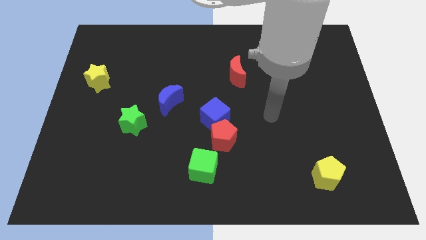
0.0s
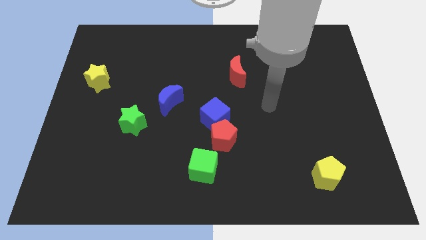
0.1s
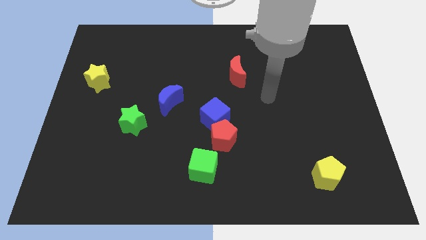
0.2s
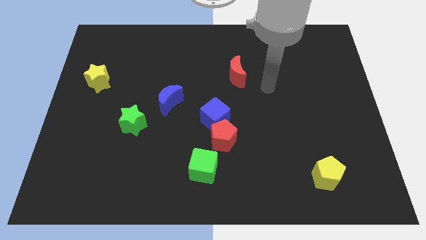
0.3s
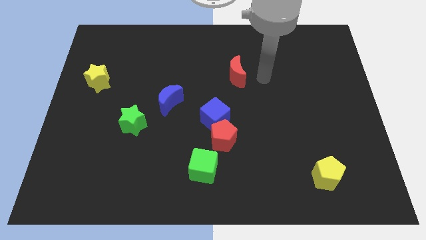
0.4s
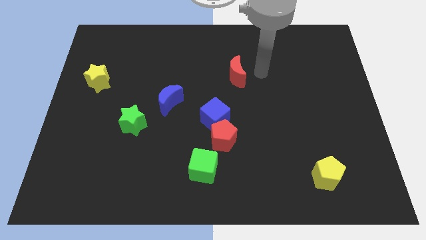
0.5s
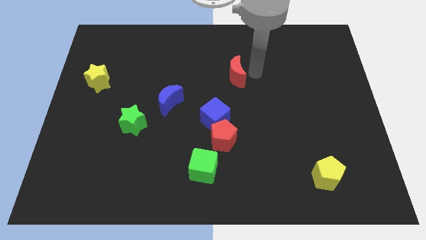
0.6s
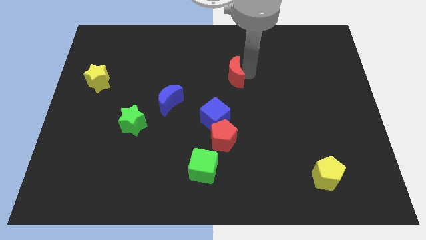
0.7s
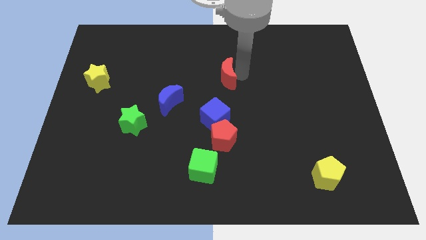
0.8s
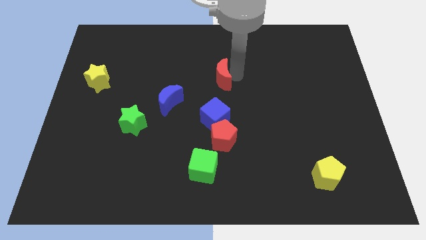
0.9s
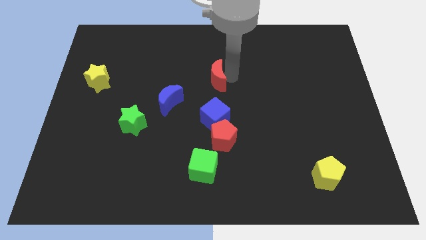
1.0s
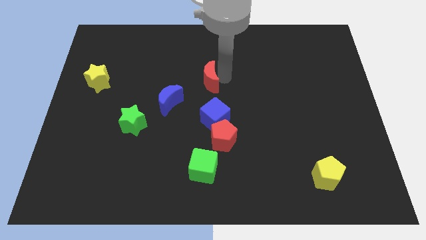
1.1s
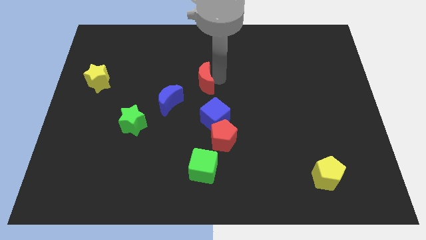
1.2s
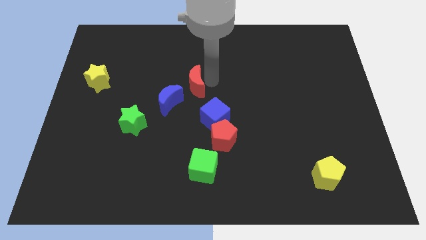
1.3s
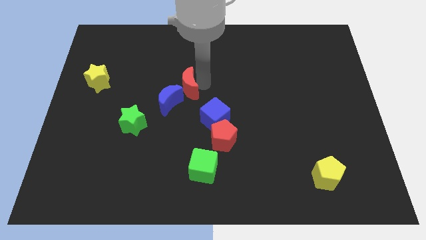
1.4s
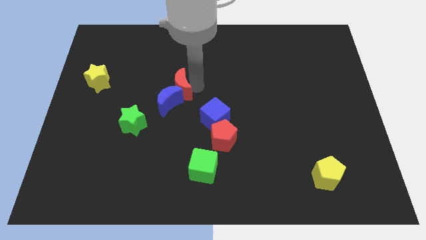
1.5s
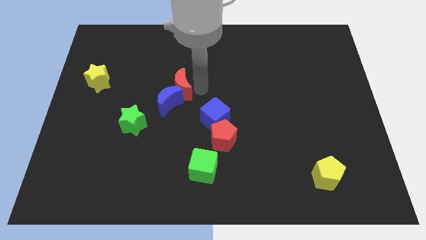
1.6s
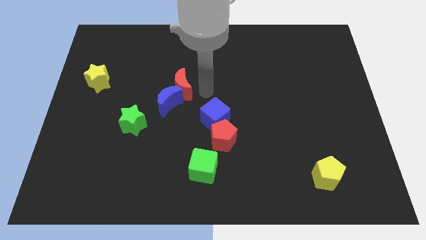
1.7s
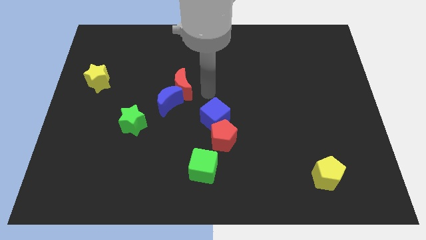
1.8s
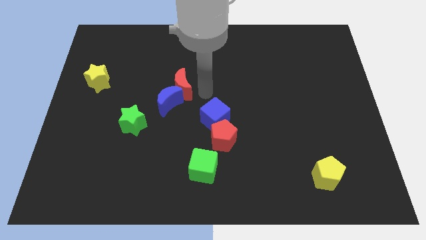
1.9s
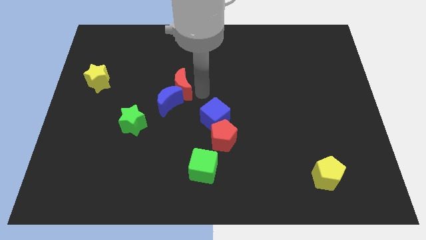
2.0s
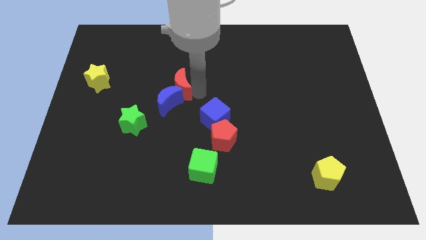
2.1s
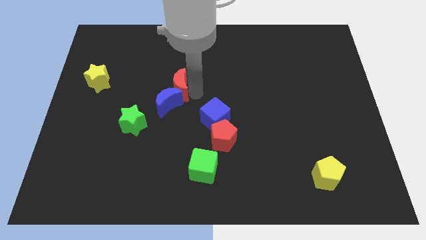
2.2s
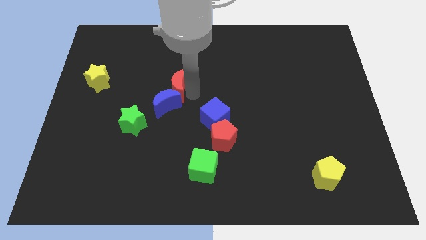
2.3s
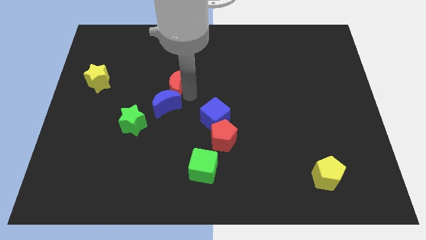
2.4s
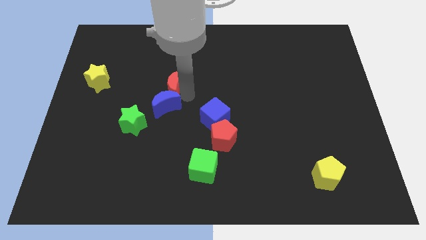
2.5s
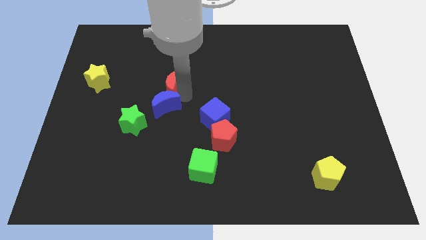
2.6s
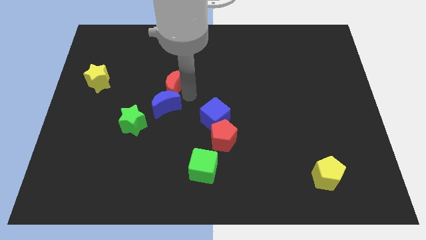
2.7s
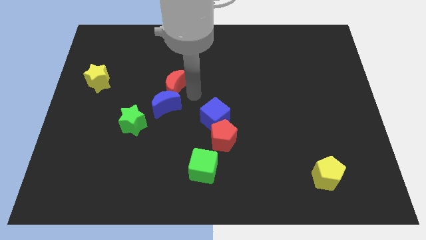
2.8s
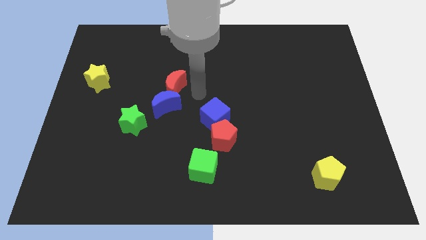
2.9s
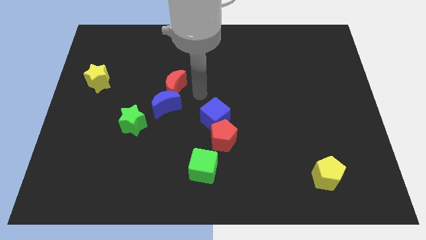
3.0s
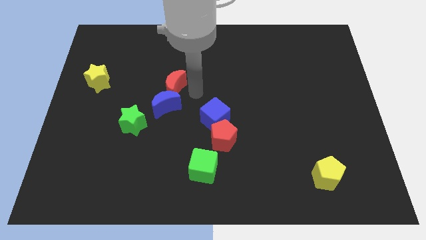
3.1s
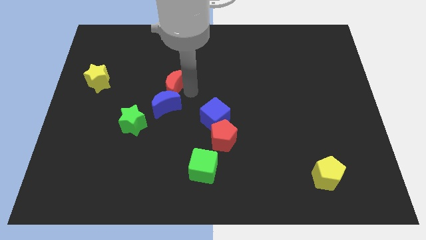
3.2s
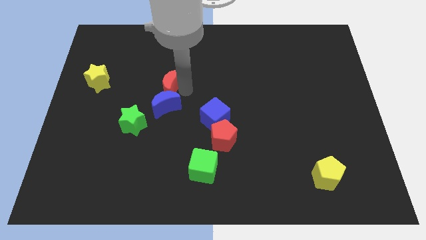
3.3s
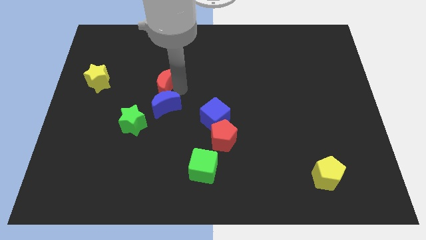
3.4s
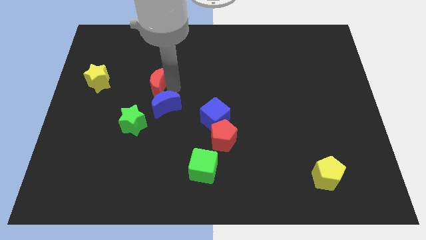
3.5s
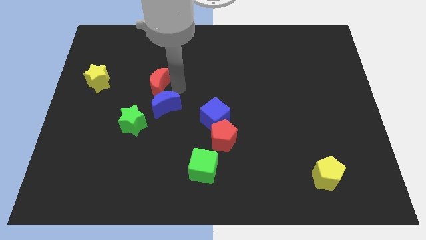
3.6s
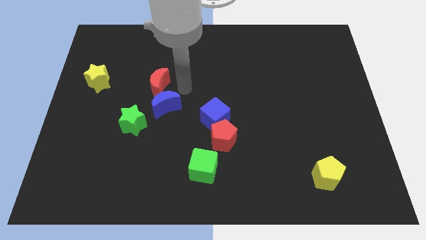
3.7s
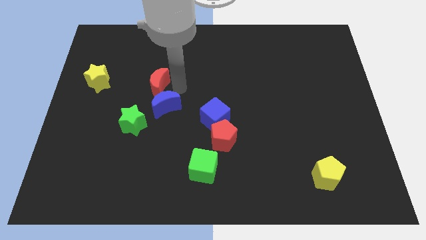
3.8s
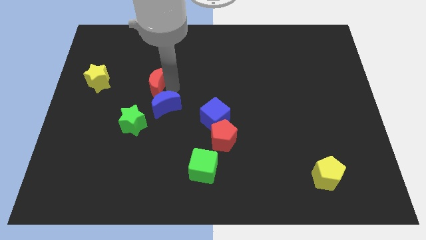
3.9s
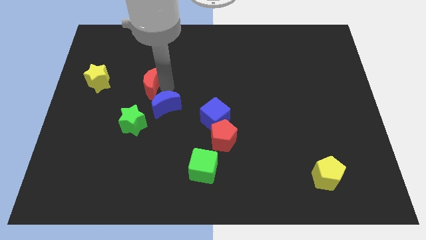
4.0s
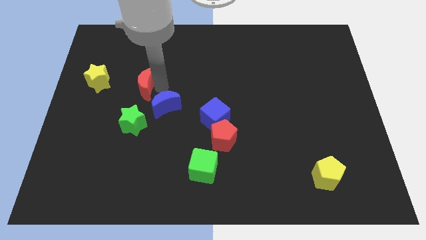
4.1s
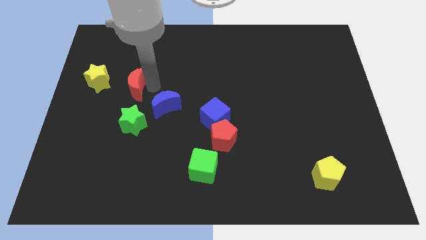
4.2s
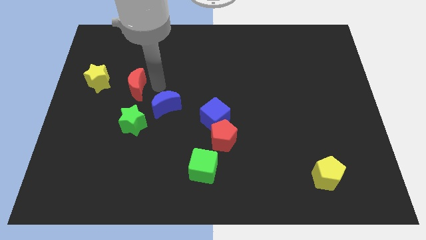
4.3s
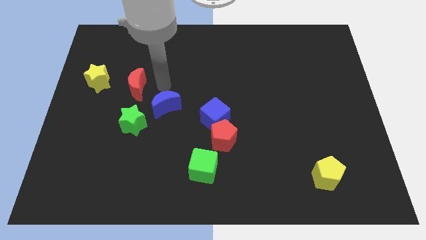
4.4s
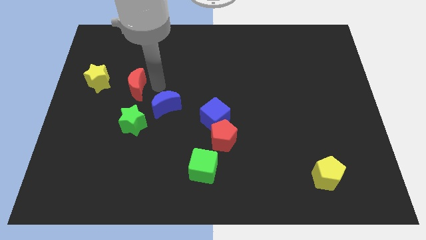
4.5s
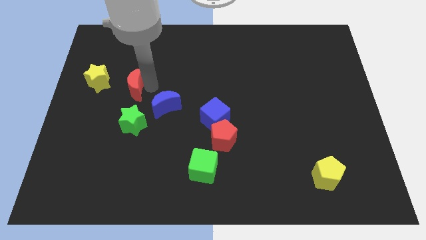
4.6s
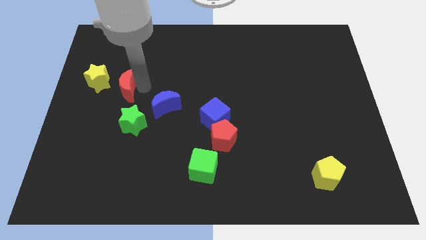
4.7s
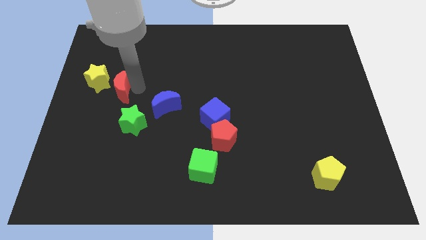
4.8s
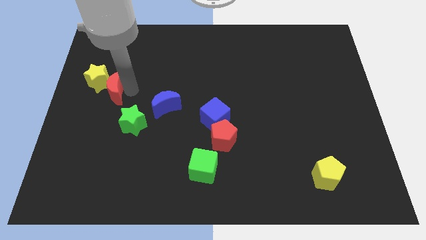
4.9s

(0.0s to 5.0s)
slide the red moon to the yellow star

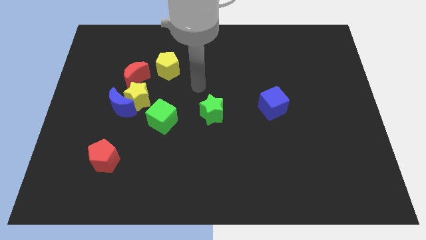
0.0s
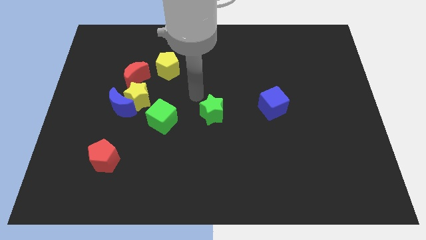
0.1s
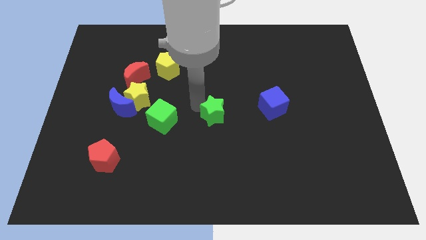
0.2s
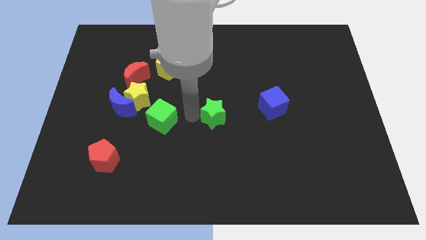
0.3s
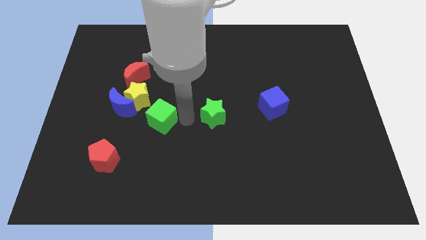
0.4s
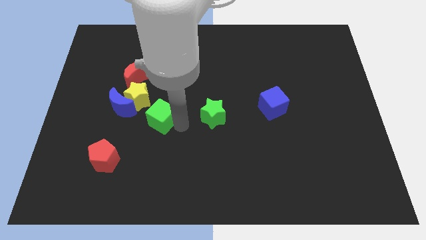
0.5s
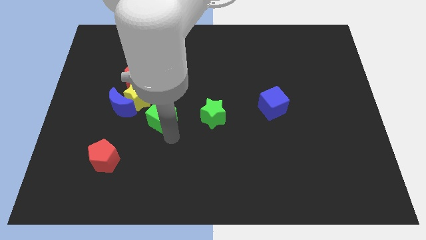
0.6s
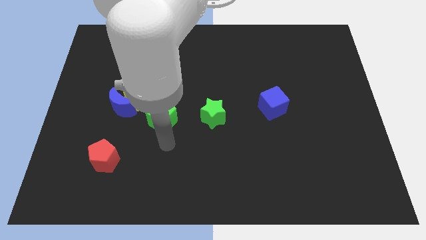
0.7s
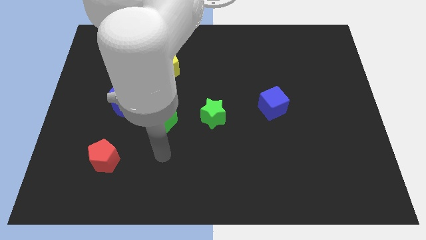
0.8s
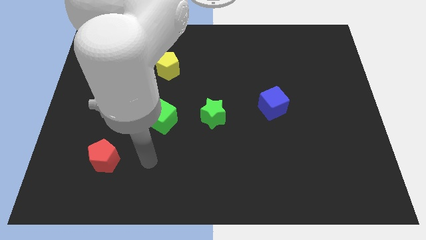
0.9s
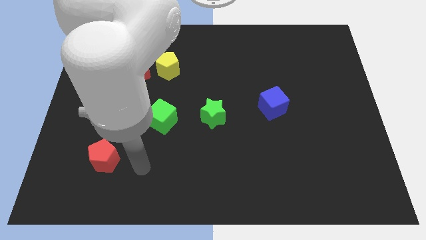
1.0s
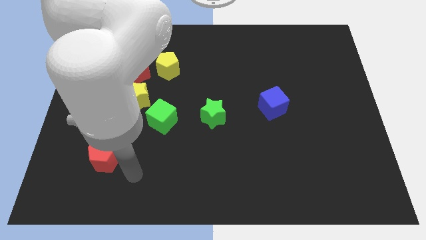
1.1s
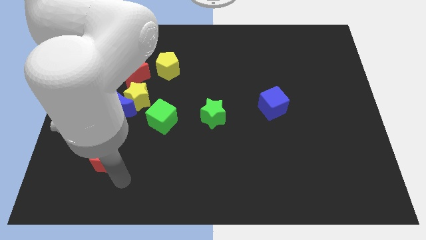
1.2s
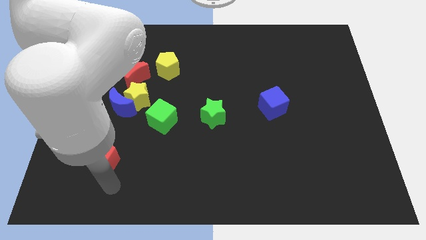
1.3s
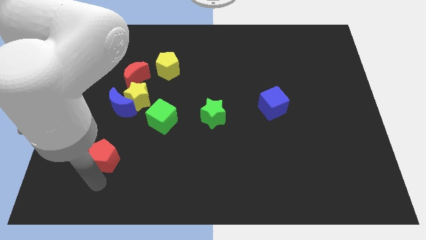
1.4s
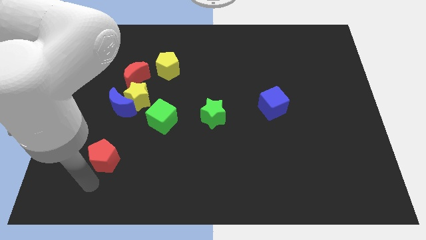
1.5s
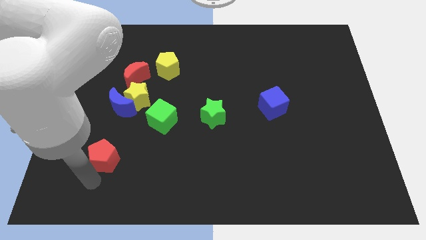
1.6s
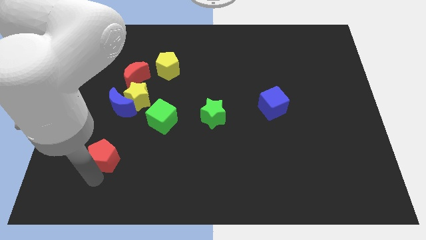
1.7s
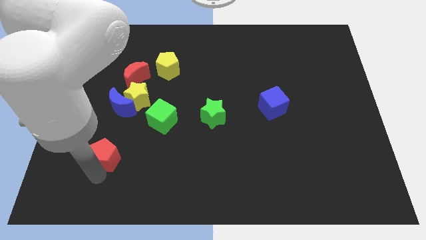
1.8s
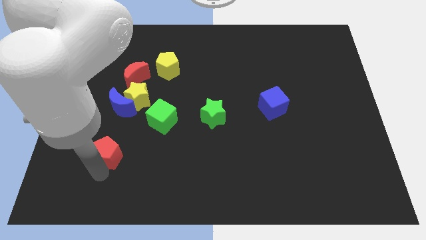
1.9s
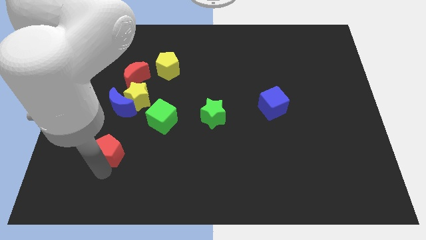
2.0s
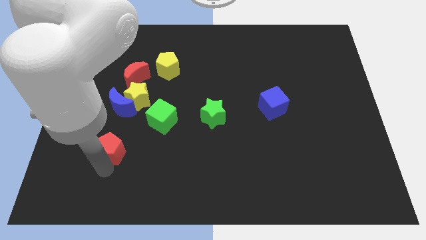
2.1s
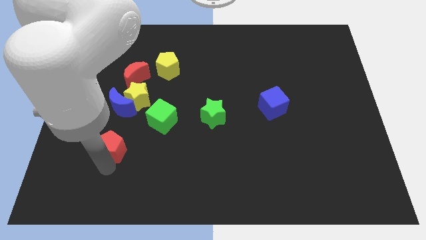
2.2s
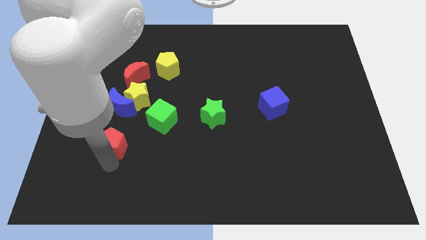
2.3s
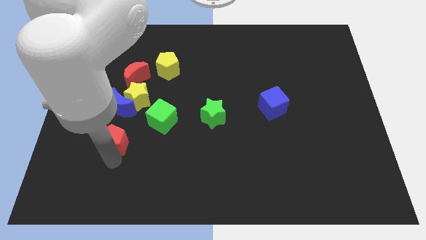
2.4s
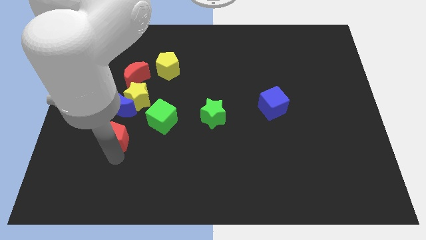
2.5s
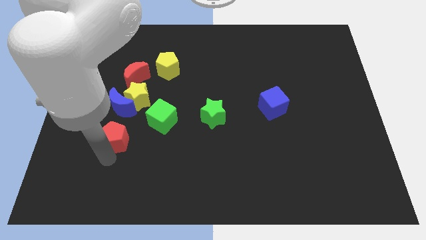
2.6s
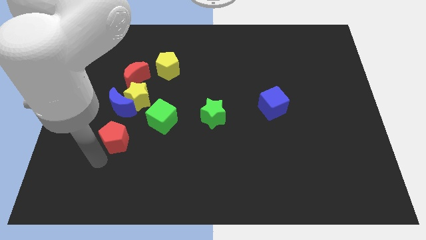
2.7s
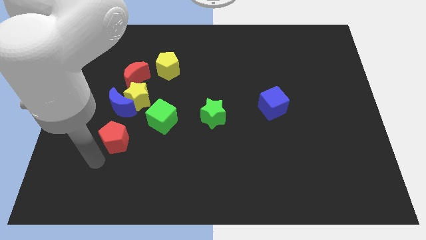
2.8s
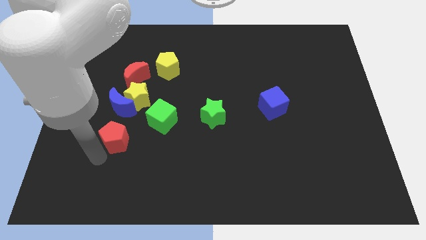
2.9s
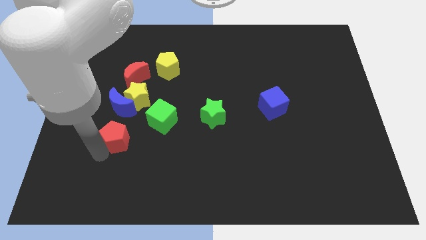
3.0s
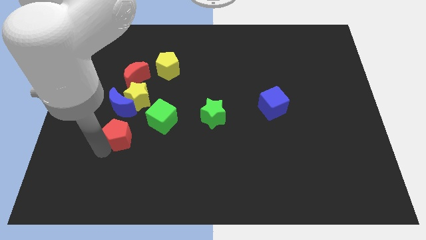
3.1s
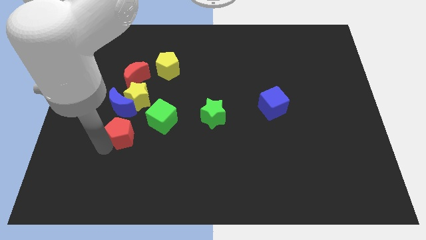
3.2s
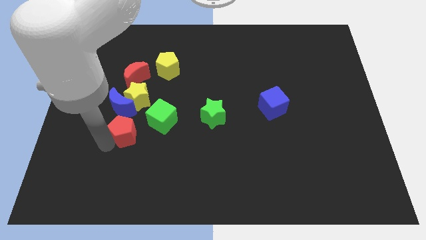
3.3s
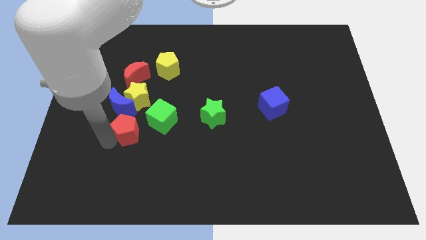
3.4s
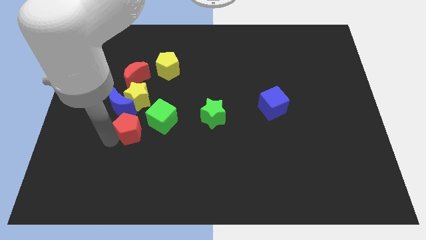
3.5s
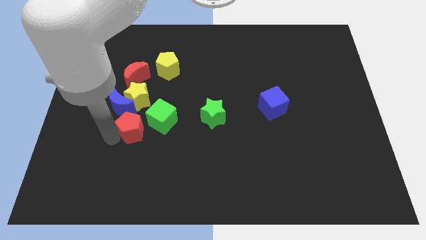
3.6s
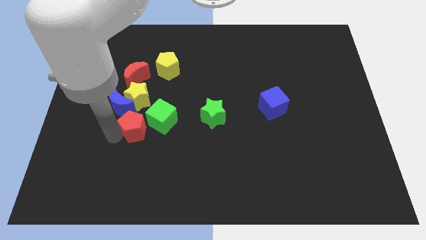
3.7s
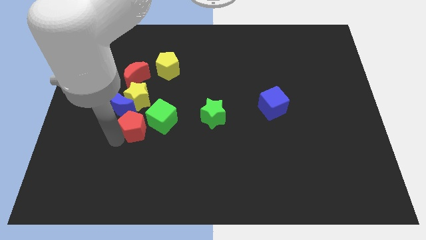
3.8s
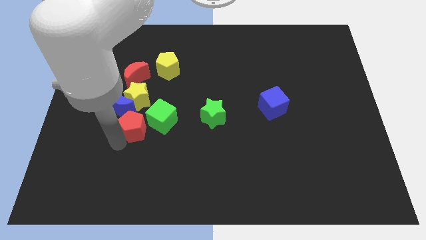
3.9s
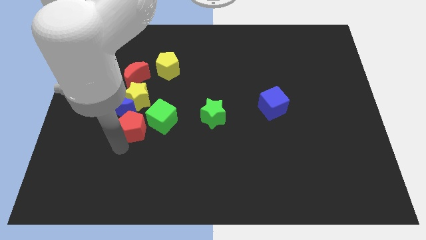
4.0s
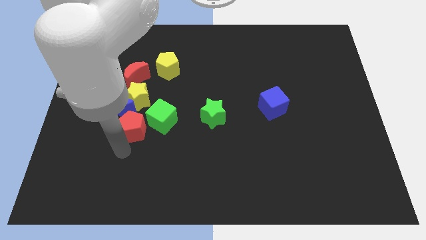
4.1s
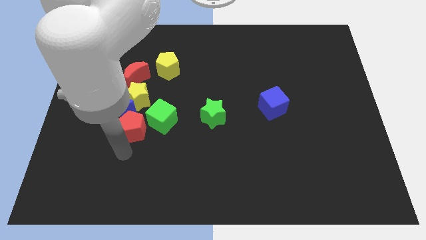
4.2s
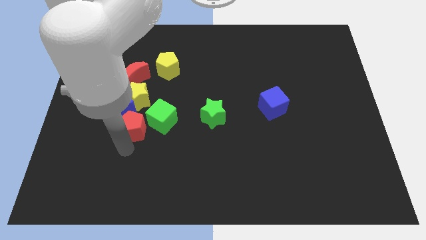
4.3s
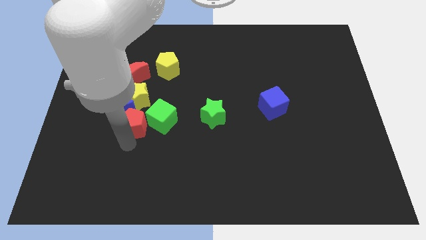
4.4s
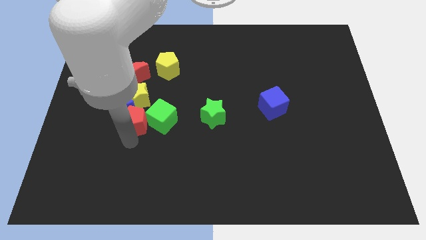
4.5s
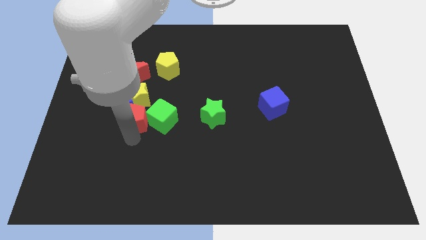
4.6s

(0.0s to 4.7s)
slide the red pentagon towards the yellow star
